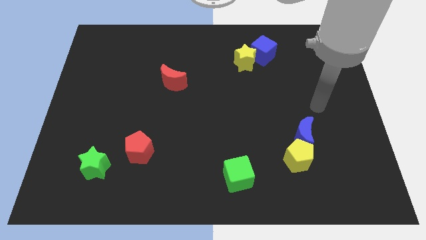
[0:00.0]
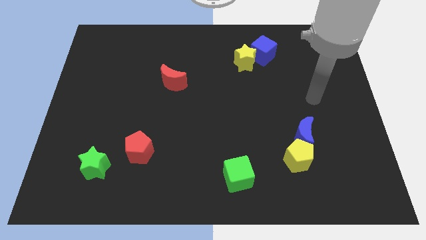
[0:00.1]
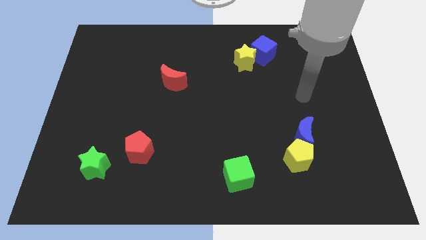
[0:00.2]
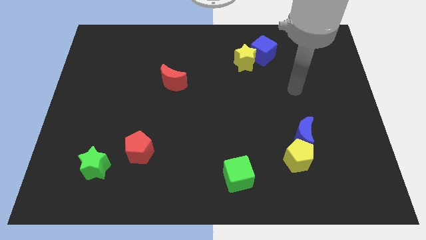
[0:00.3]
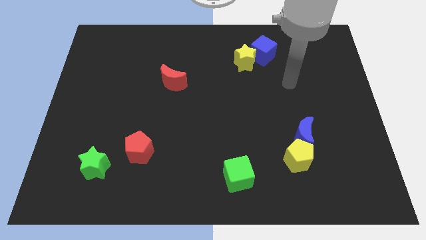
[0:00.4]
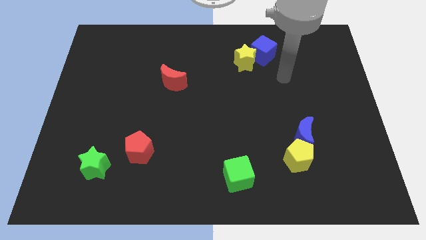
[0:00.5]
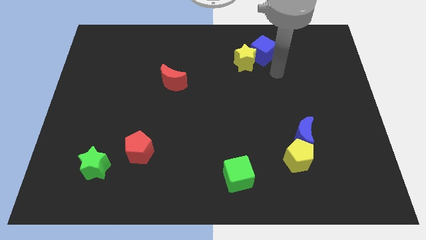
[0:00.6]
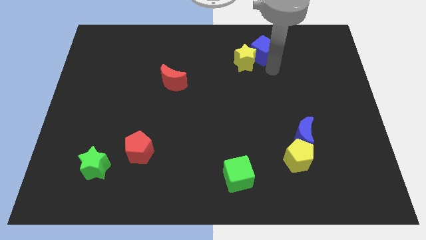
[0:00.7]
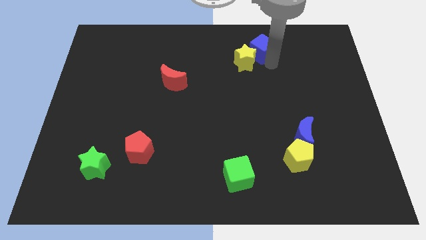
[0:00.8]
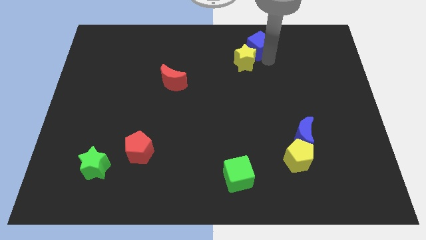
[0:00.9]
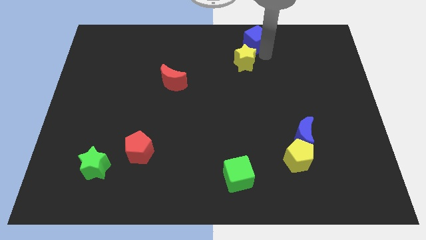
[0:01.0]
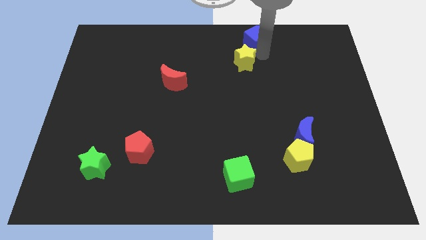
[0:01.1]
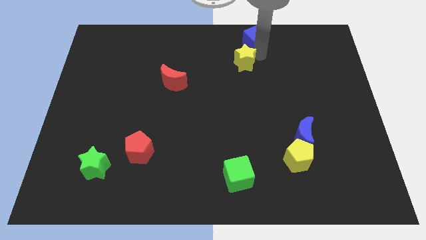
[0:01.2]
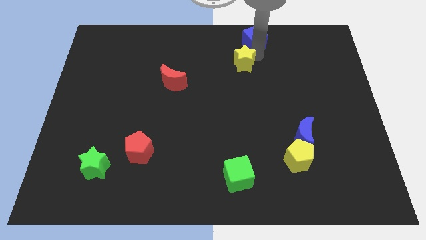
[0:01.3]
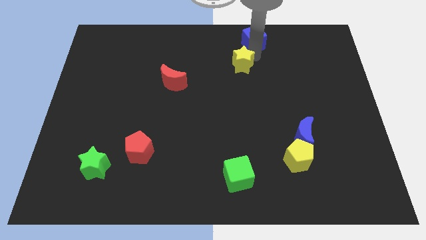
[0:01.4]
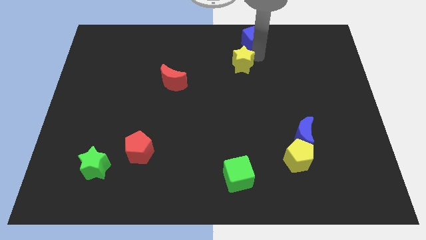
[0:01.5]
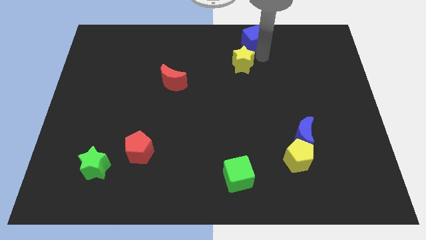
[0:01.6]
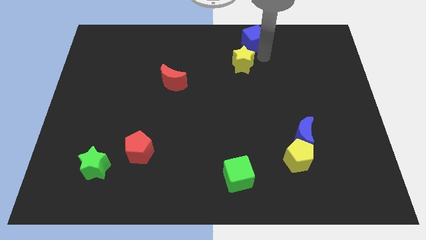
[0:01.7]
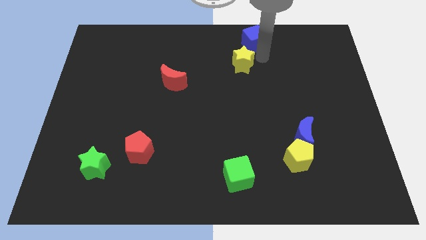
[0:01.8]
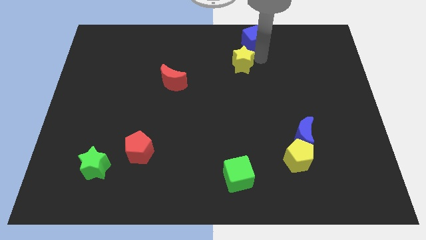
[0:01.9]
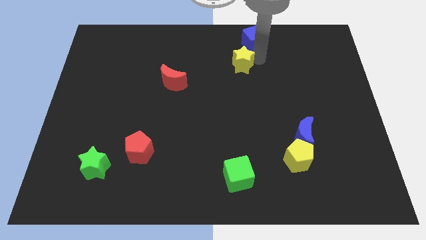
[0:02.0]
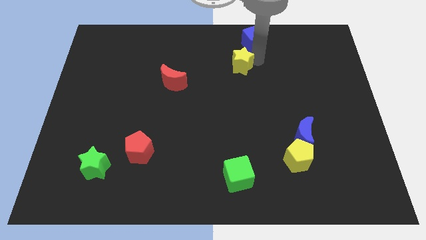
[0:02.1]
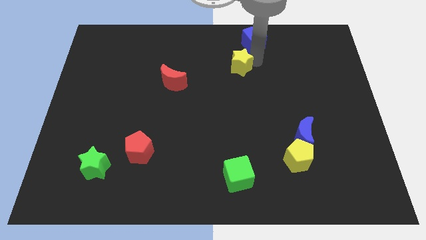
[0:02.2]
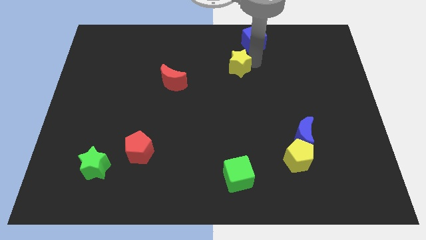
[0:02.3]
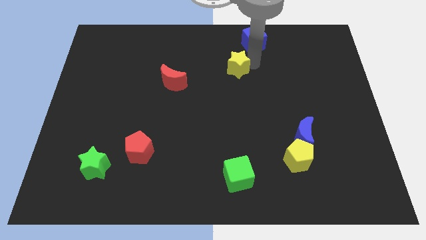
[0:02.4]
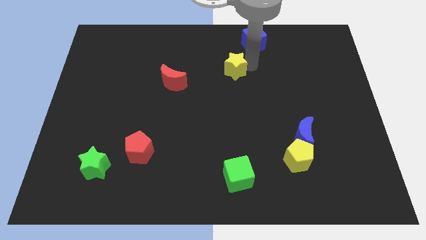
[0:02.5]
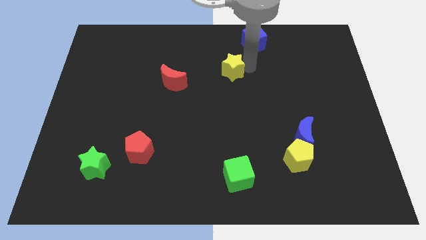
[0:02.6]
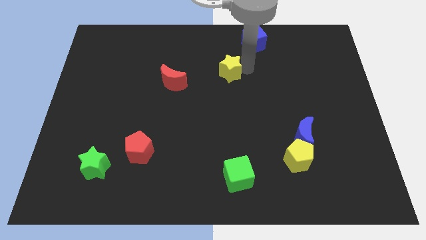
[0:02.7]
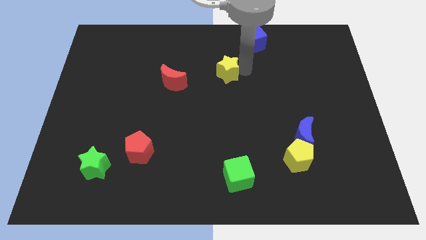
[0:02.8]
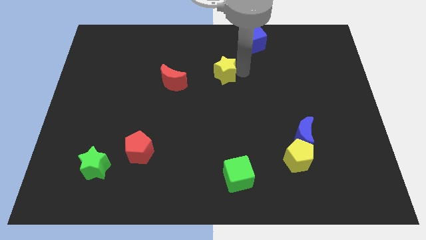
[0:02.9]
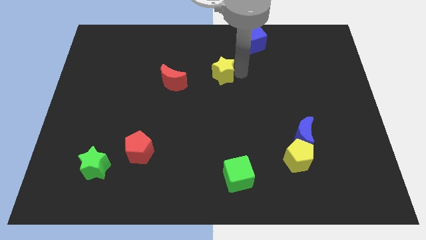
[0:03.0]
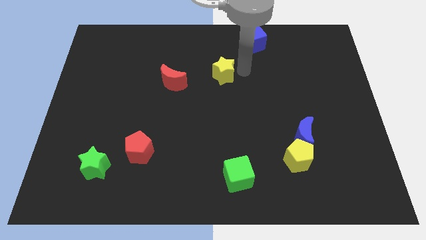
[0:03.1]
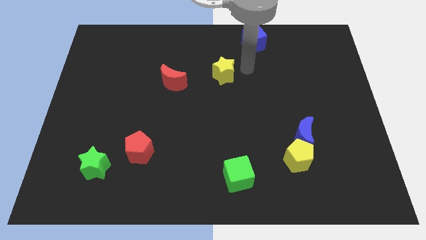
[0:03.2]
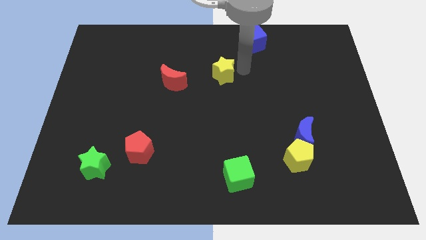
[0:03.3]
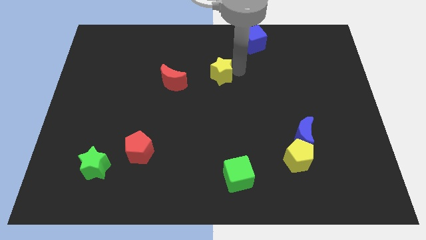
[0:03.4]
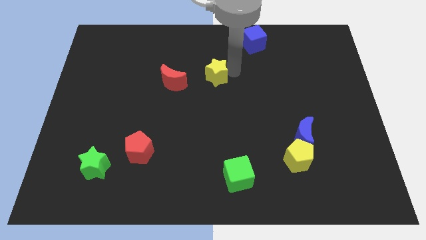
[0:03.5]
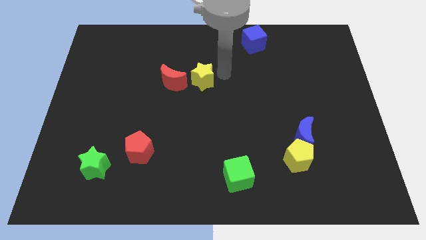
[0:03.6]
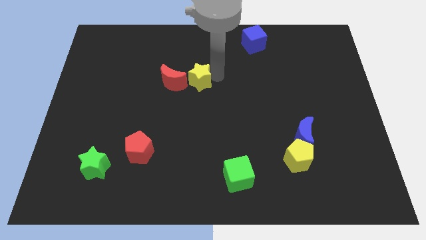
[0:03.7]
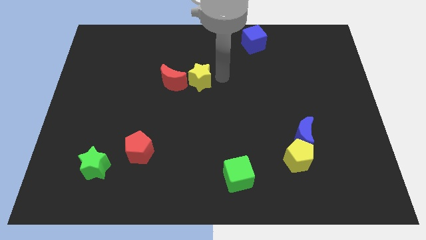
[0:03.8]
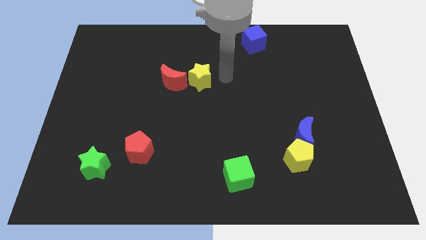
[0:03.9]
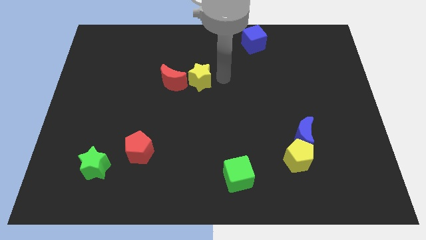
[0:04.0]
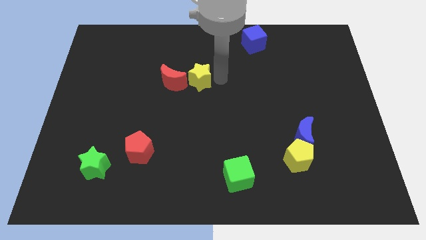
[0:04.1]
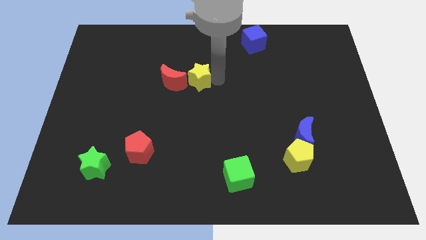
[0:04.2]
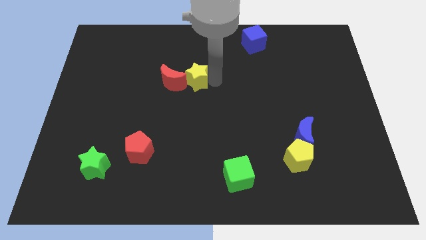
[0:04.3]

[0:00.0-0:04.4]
move the yellow star next to the red moon

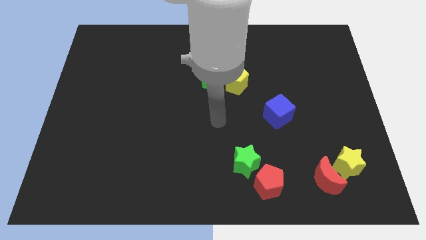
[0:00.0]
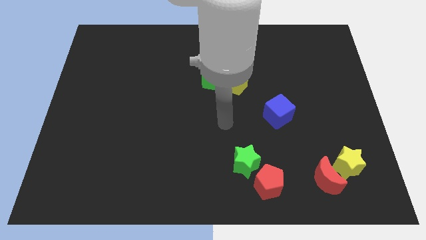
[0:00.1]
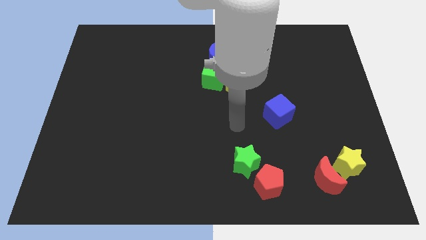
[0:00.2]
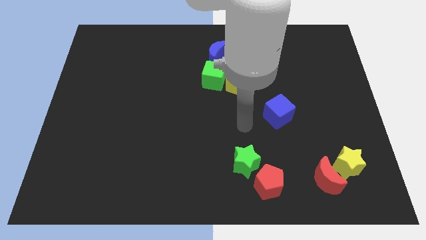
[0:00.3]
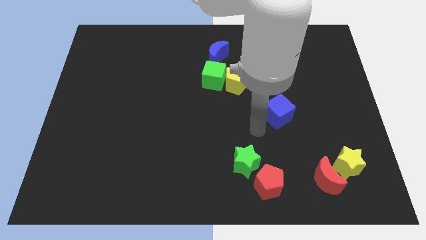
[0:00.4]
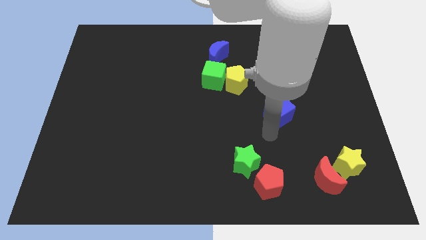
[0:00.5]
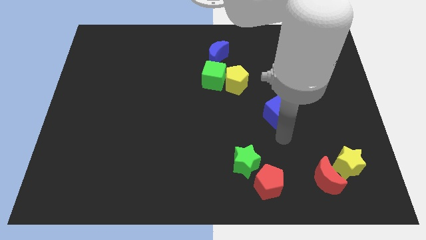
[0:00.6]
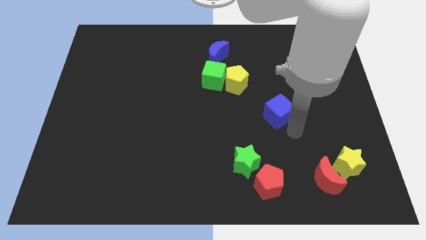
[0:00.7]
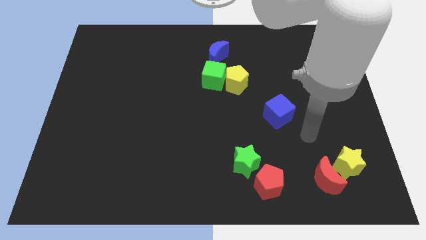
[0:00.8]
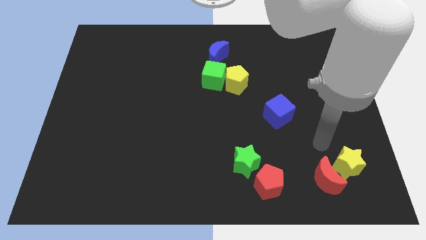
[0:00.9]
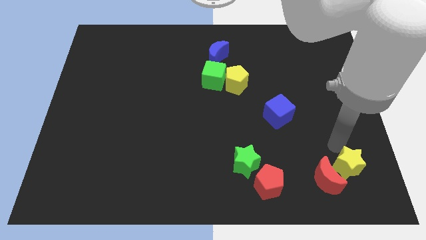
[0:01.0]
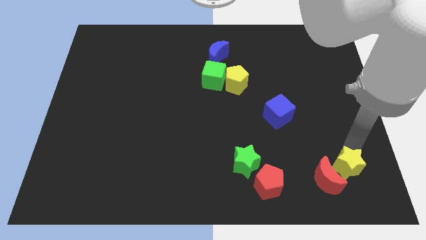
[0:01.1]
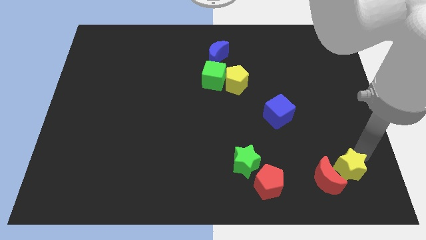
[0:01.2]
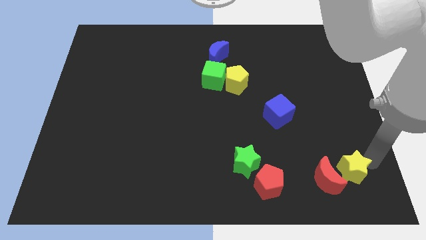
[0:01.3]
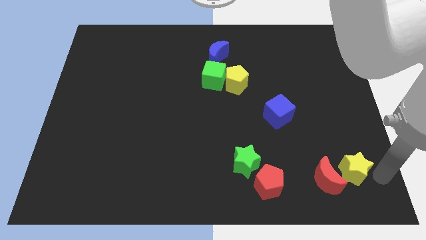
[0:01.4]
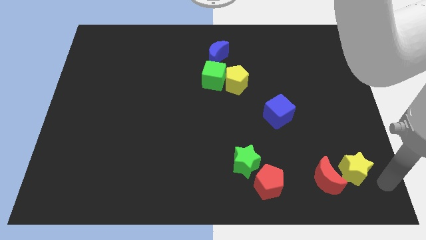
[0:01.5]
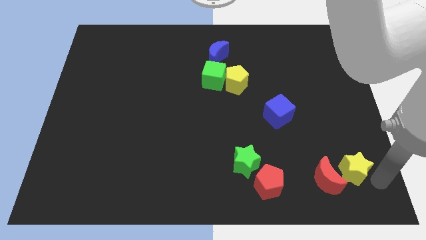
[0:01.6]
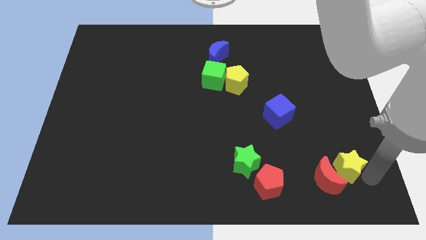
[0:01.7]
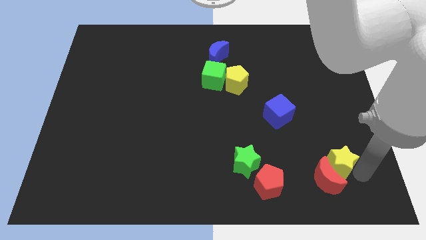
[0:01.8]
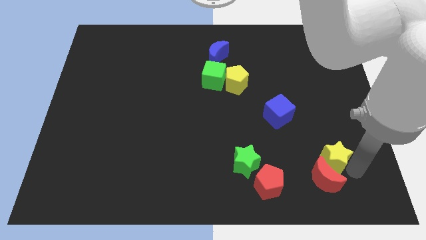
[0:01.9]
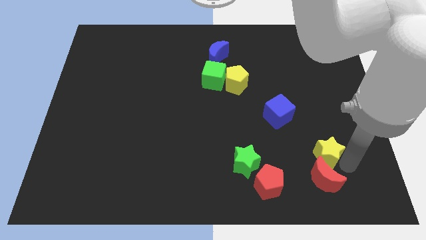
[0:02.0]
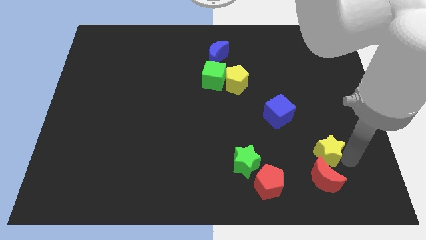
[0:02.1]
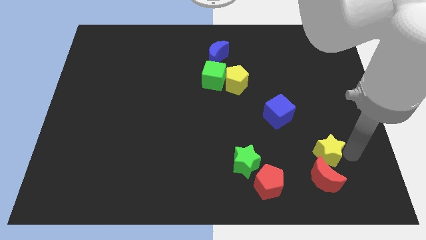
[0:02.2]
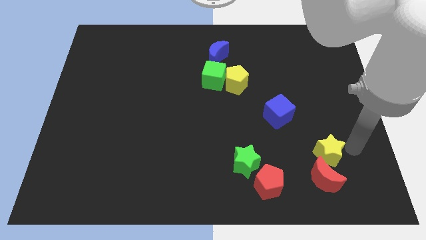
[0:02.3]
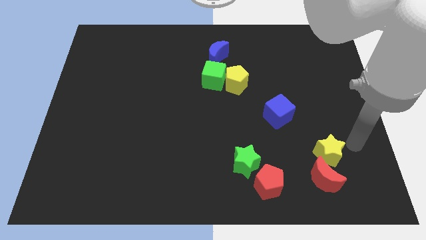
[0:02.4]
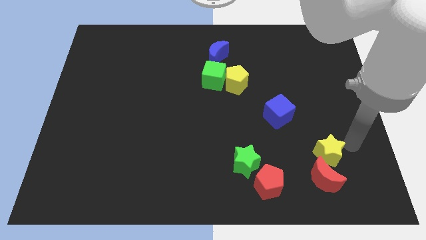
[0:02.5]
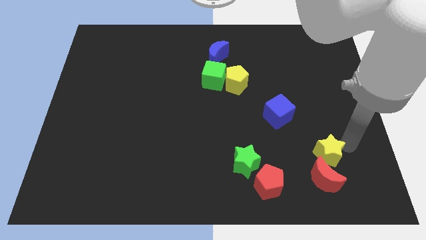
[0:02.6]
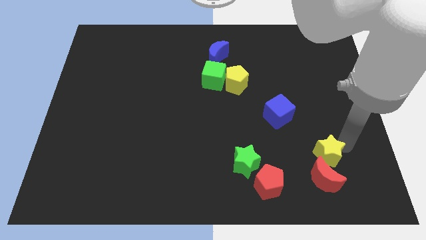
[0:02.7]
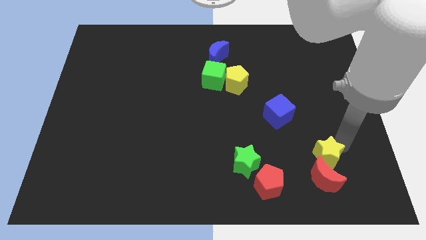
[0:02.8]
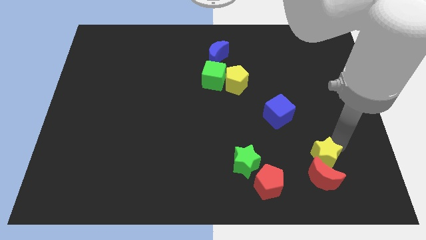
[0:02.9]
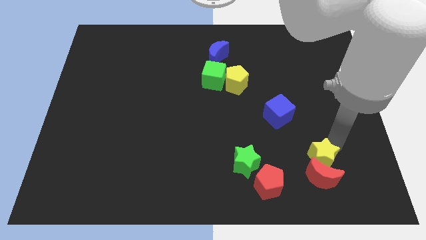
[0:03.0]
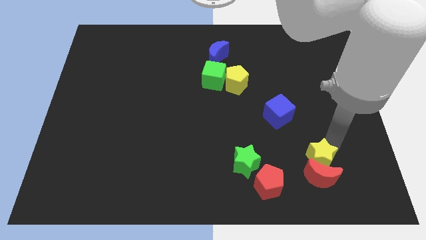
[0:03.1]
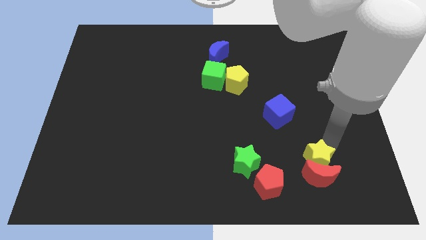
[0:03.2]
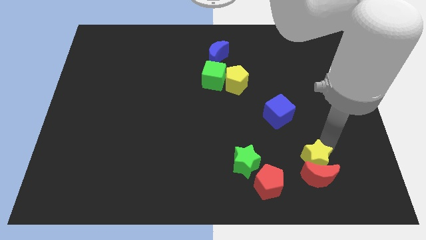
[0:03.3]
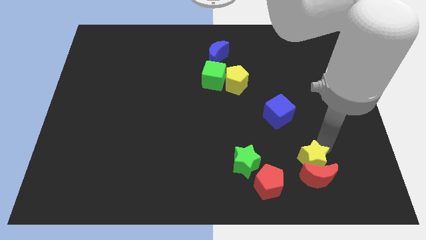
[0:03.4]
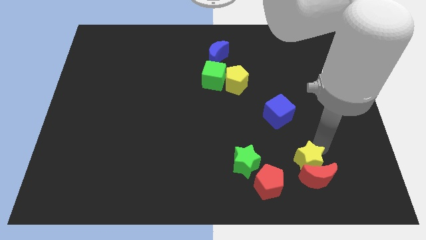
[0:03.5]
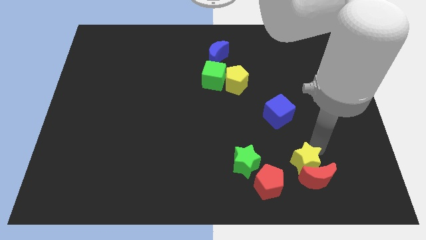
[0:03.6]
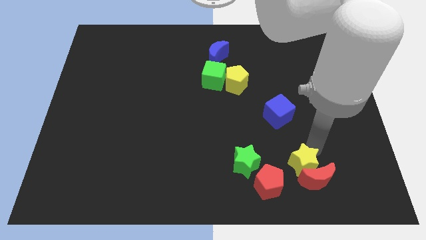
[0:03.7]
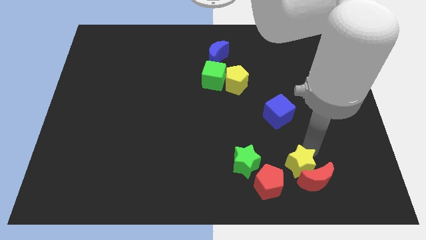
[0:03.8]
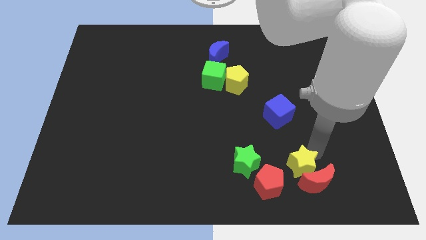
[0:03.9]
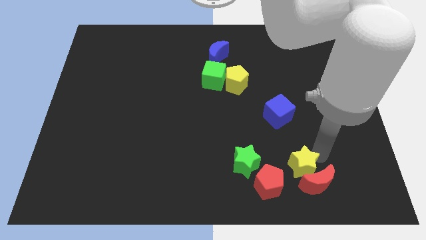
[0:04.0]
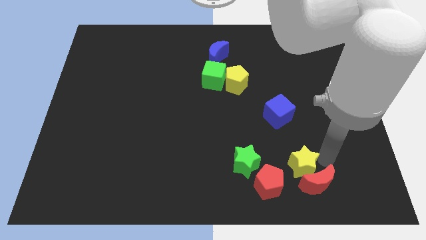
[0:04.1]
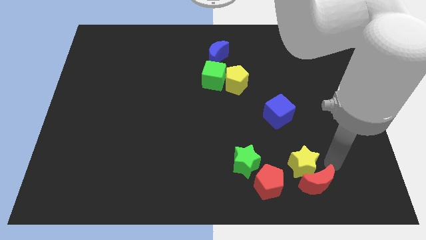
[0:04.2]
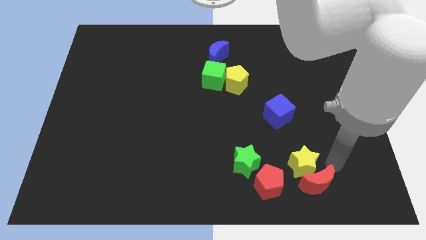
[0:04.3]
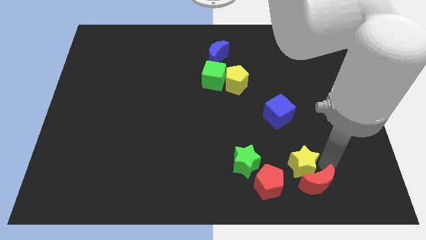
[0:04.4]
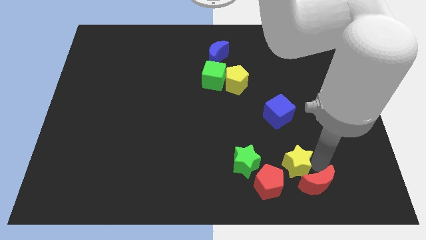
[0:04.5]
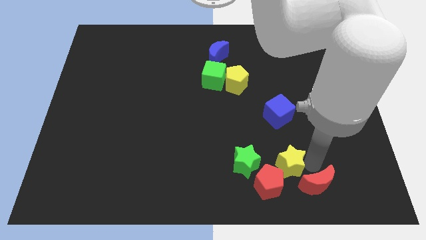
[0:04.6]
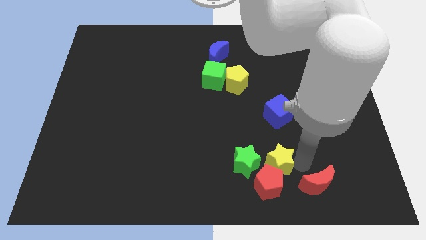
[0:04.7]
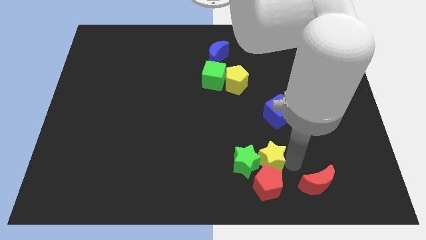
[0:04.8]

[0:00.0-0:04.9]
move the yellow star to the green star
